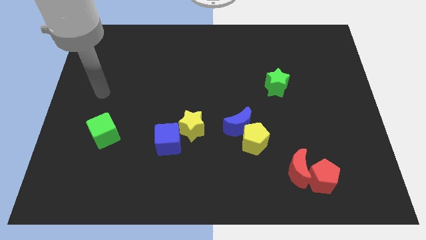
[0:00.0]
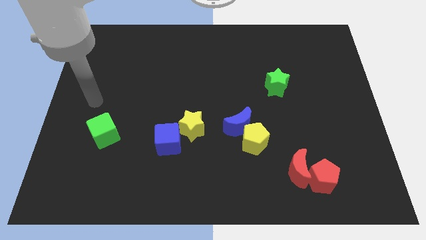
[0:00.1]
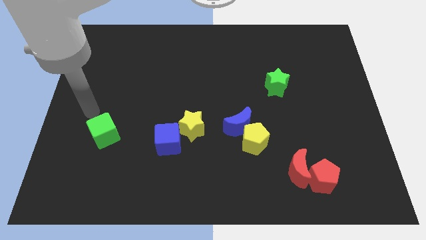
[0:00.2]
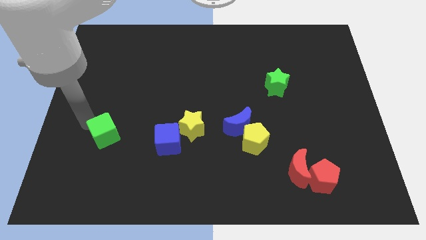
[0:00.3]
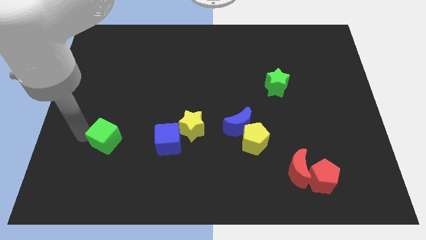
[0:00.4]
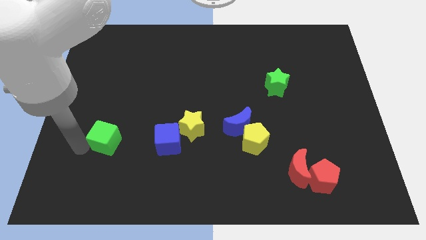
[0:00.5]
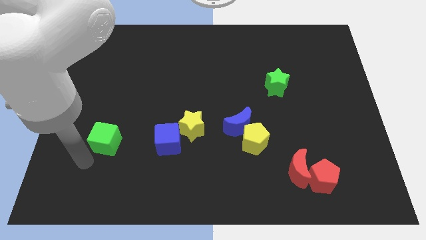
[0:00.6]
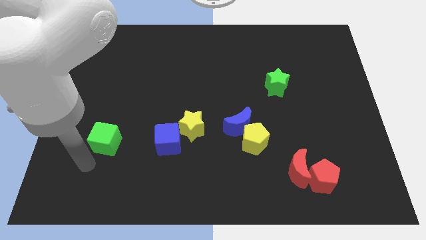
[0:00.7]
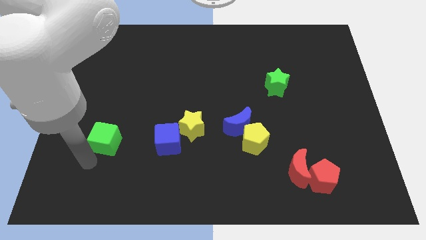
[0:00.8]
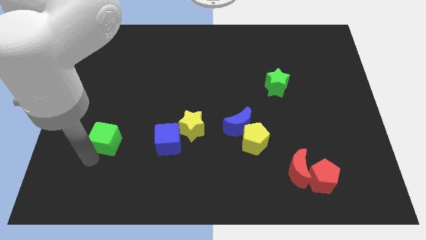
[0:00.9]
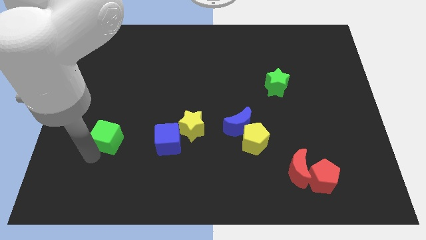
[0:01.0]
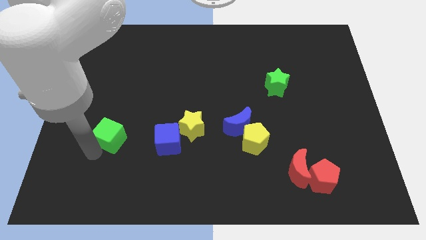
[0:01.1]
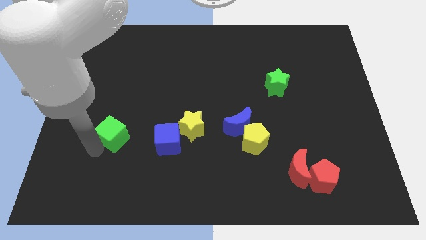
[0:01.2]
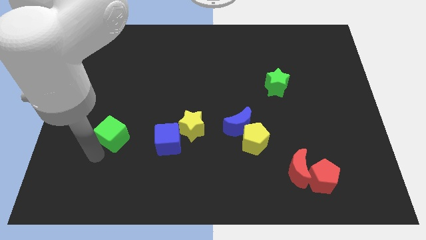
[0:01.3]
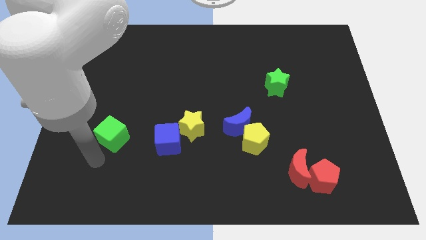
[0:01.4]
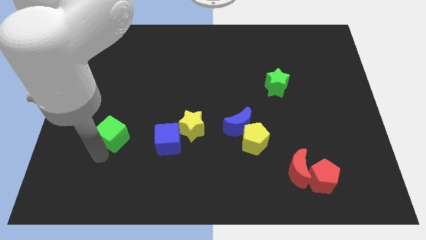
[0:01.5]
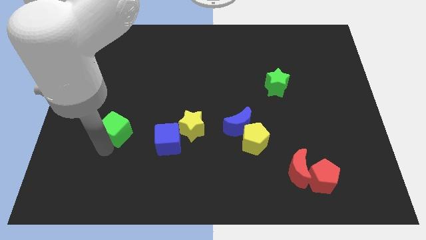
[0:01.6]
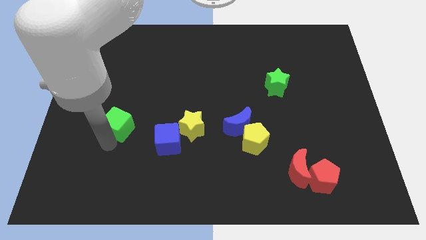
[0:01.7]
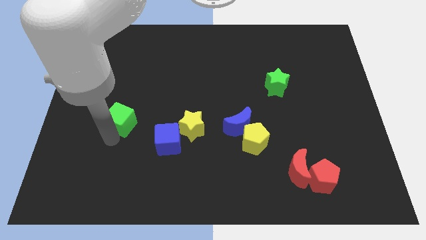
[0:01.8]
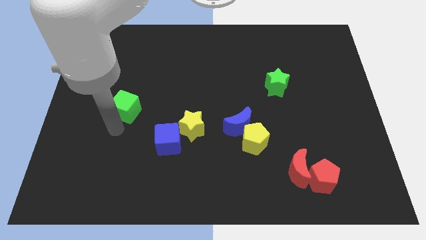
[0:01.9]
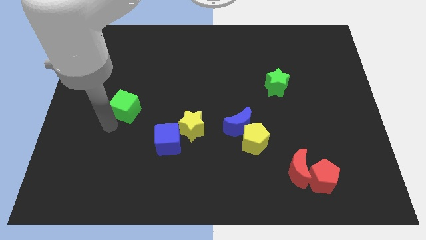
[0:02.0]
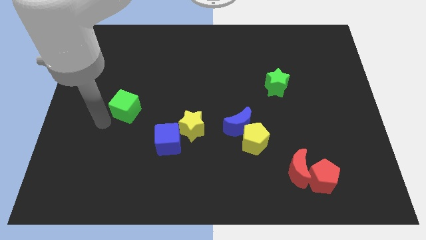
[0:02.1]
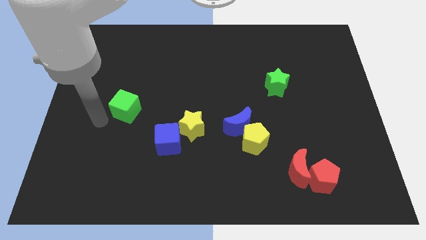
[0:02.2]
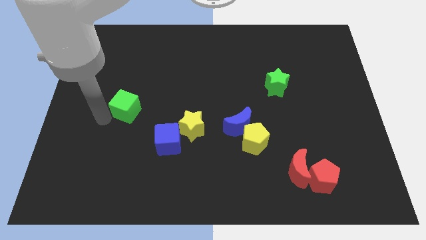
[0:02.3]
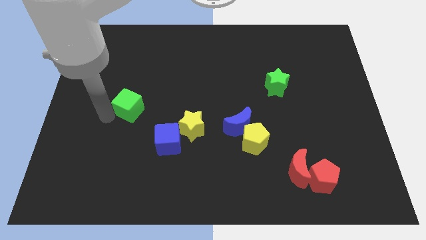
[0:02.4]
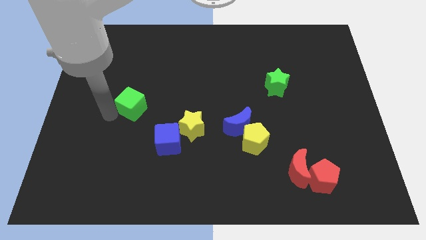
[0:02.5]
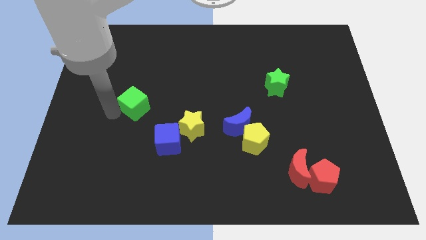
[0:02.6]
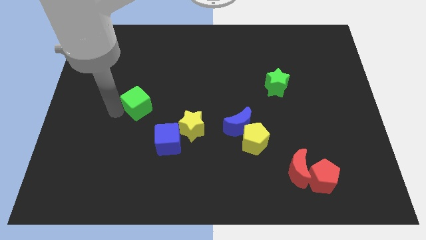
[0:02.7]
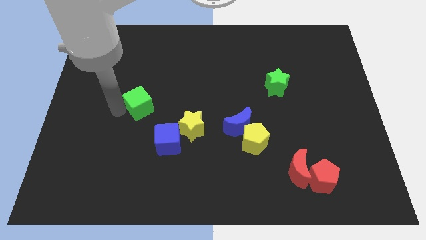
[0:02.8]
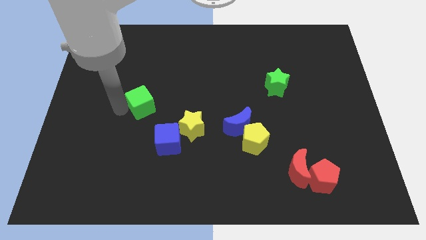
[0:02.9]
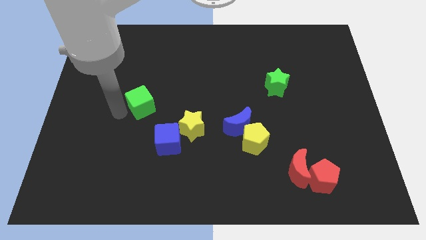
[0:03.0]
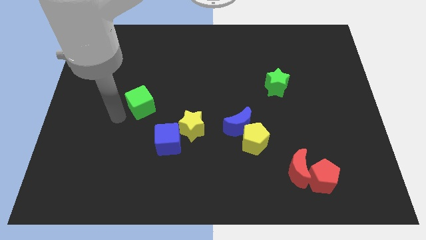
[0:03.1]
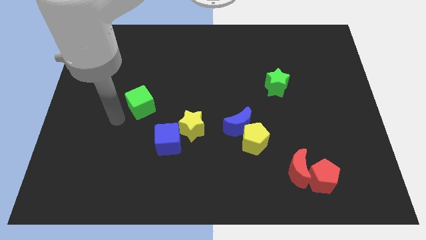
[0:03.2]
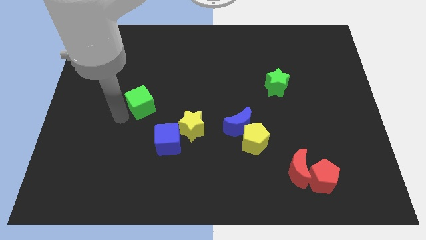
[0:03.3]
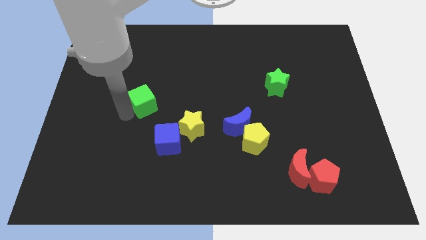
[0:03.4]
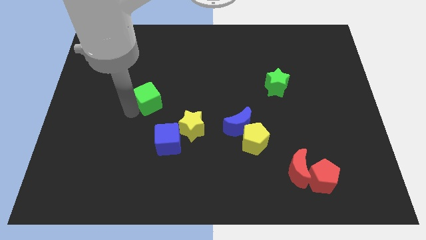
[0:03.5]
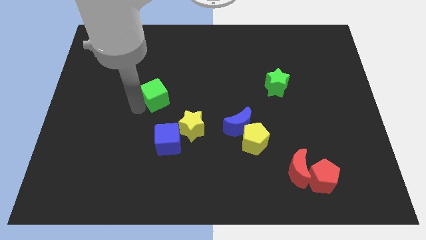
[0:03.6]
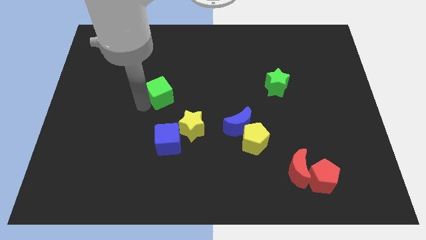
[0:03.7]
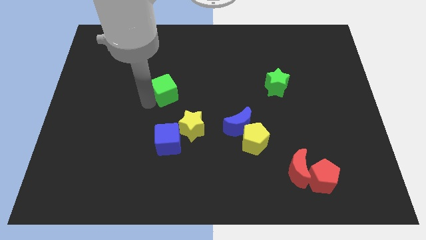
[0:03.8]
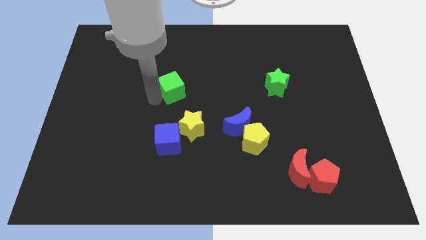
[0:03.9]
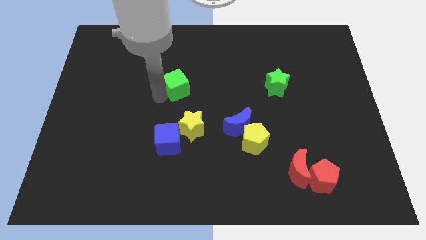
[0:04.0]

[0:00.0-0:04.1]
slide the green cube diagonally up and right

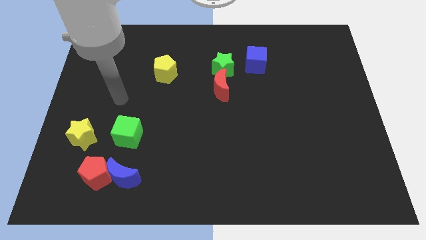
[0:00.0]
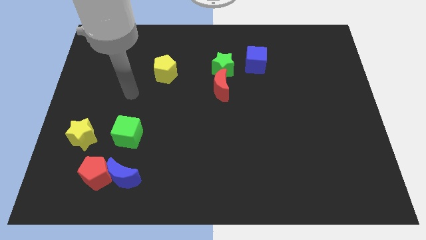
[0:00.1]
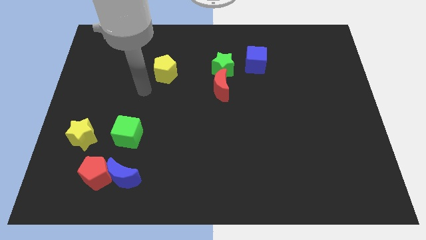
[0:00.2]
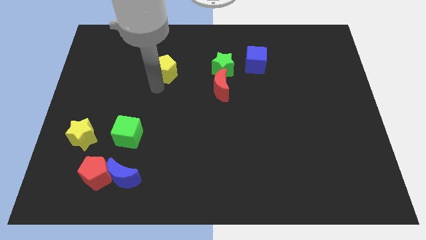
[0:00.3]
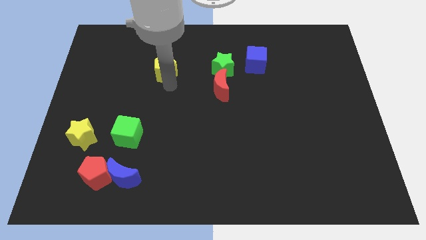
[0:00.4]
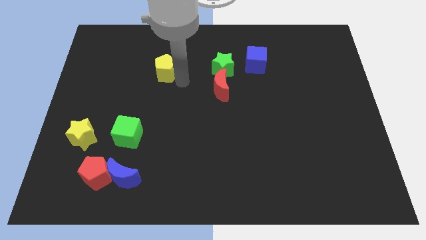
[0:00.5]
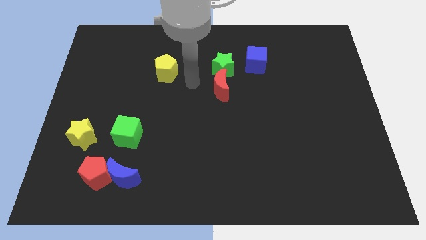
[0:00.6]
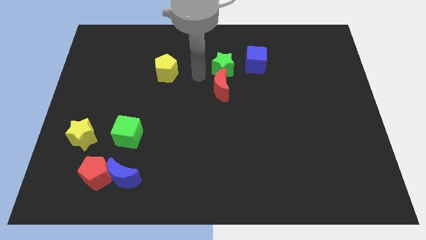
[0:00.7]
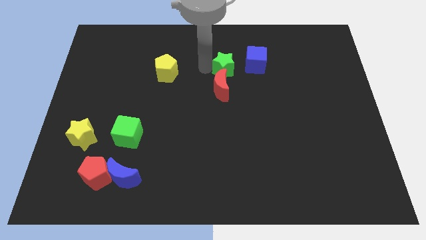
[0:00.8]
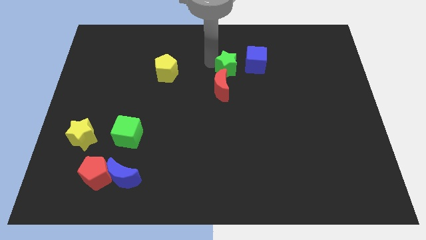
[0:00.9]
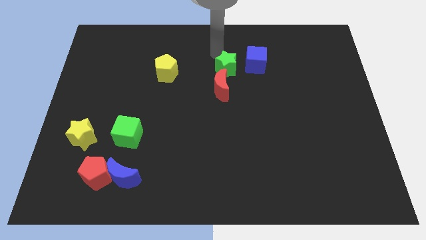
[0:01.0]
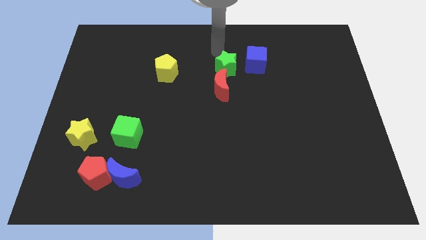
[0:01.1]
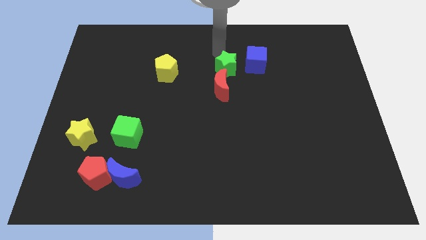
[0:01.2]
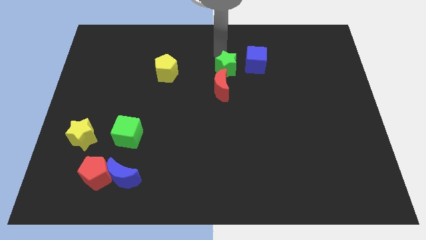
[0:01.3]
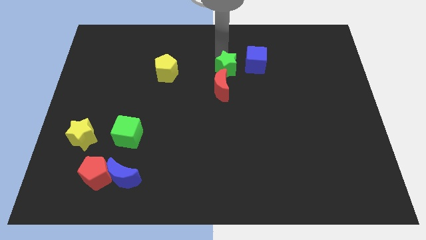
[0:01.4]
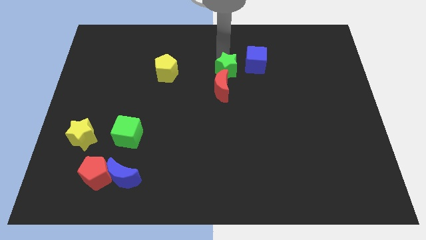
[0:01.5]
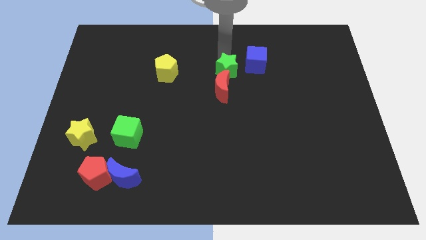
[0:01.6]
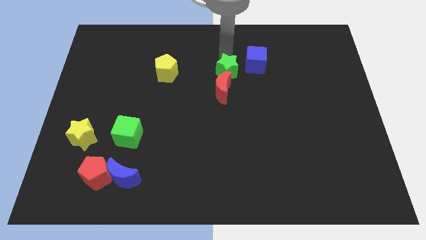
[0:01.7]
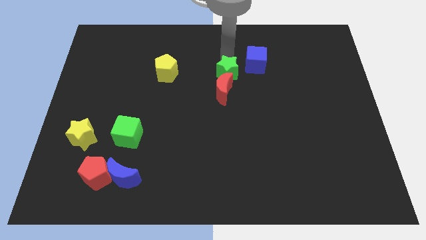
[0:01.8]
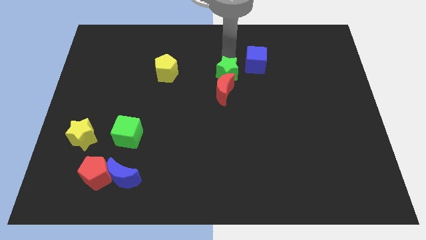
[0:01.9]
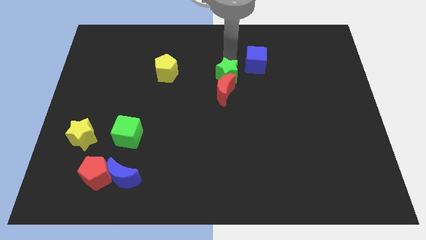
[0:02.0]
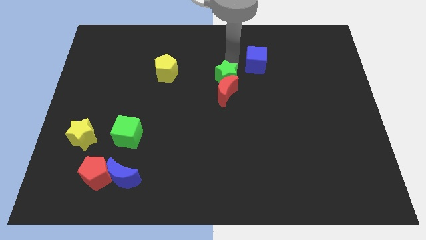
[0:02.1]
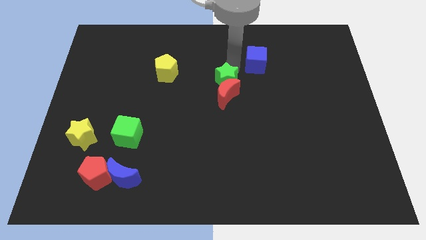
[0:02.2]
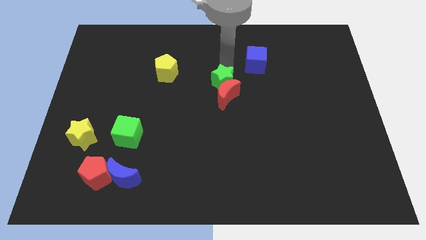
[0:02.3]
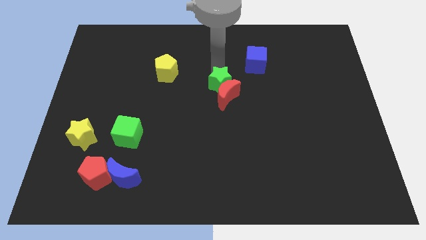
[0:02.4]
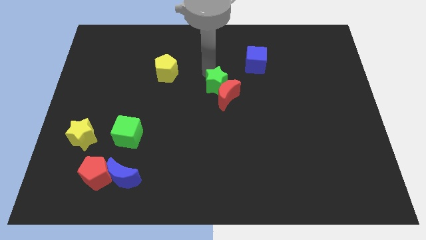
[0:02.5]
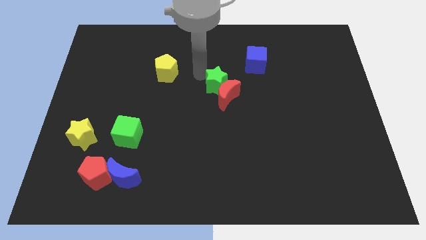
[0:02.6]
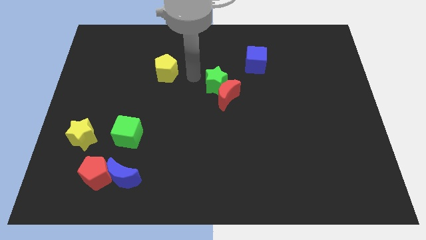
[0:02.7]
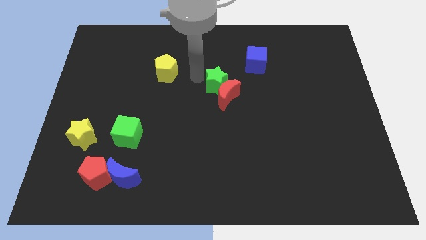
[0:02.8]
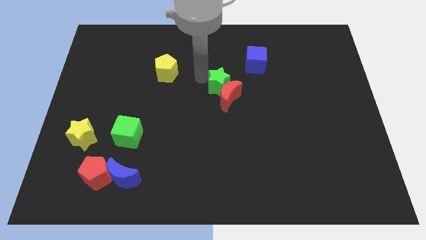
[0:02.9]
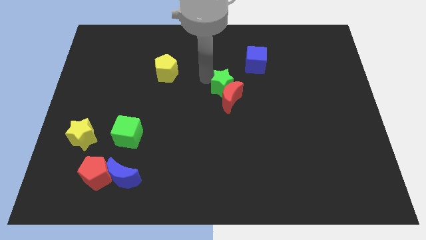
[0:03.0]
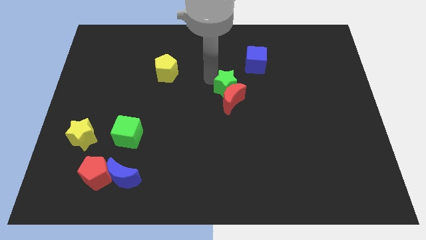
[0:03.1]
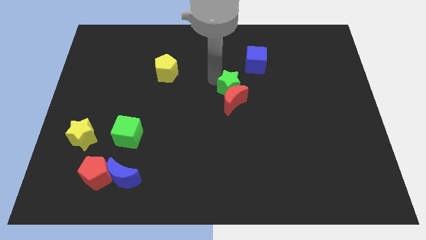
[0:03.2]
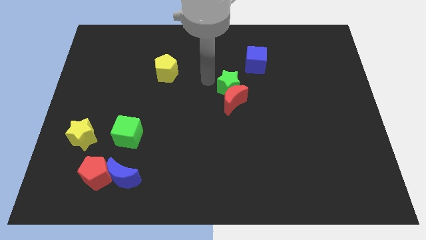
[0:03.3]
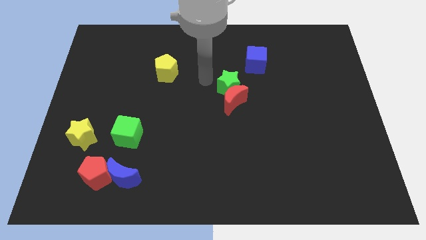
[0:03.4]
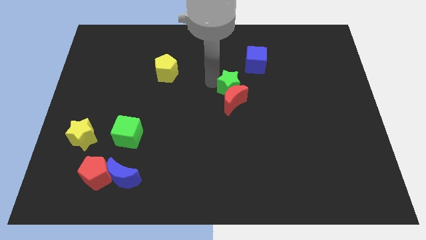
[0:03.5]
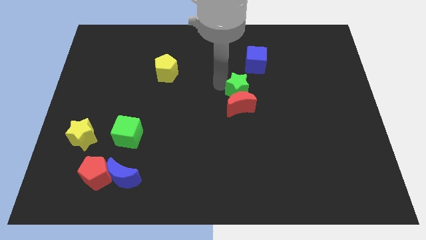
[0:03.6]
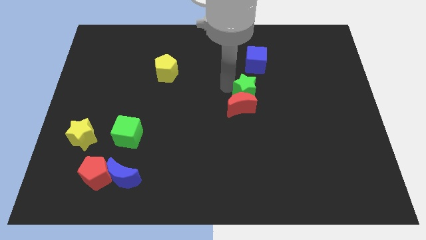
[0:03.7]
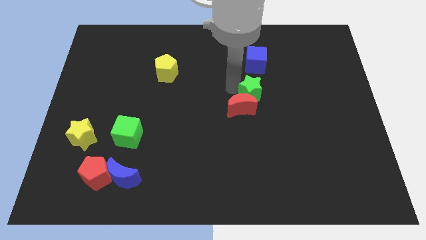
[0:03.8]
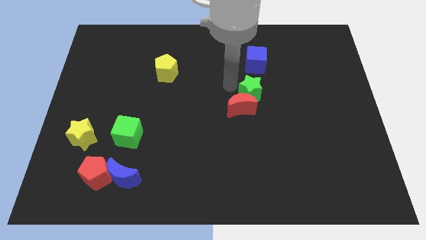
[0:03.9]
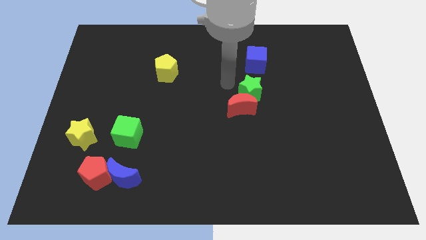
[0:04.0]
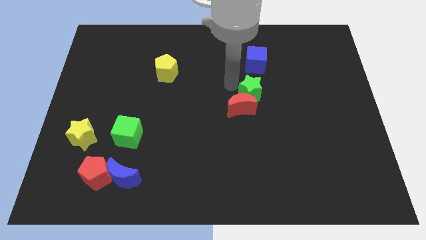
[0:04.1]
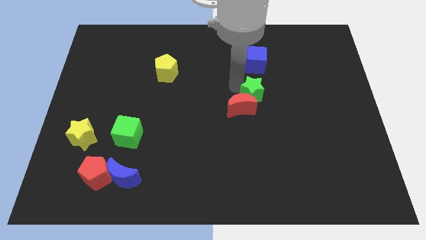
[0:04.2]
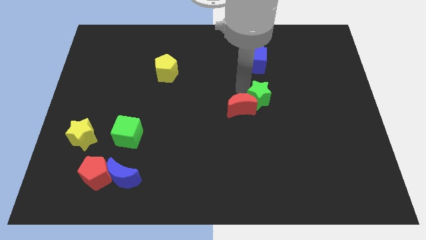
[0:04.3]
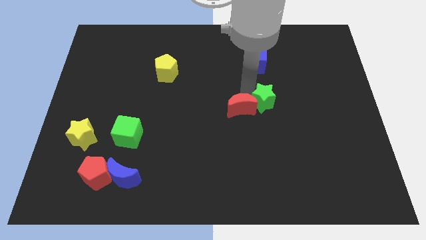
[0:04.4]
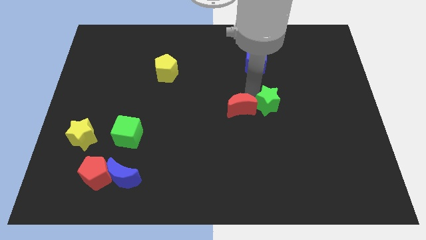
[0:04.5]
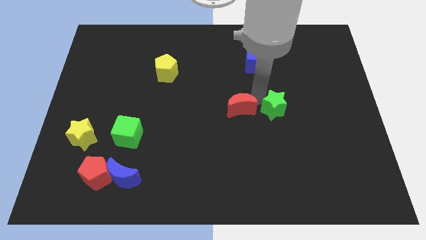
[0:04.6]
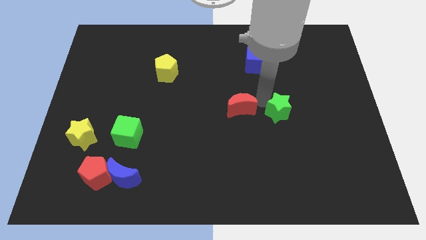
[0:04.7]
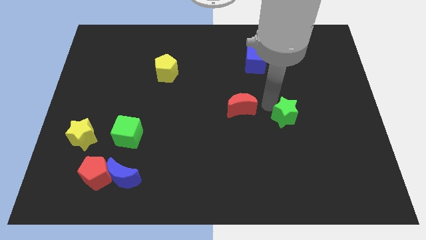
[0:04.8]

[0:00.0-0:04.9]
move the green star down and then right
